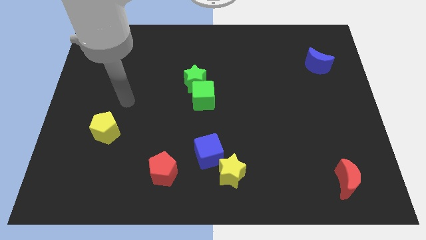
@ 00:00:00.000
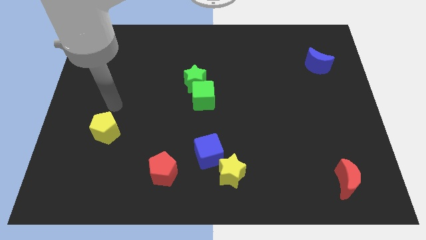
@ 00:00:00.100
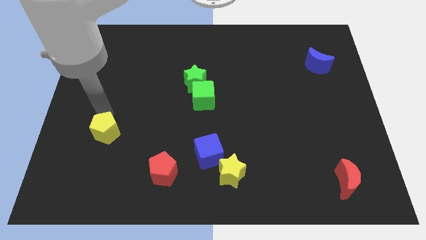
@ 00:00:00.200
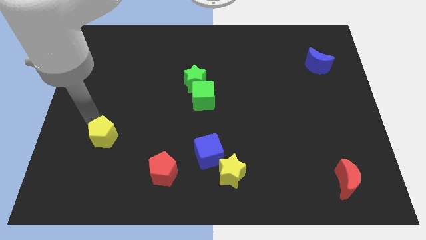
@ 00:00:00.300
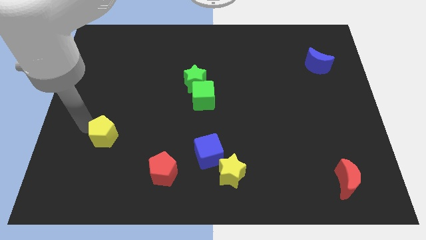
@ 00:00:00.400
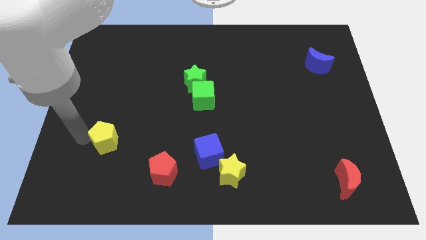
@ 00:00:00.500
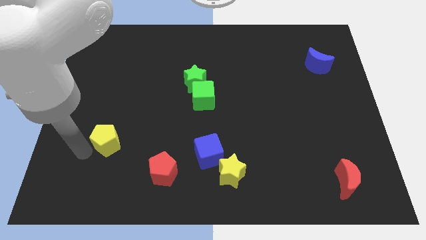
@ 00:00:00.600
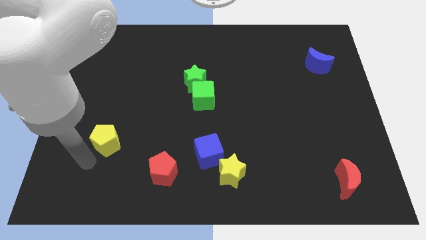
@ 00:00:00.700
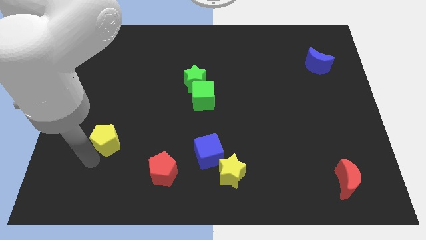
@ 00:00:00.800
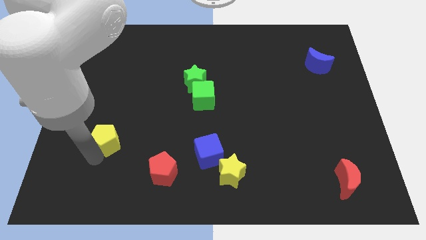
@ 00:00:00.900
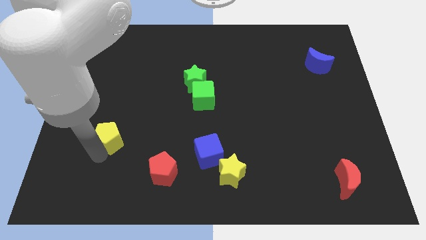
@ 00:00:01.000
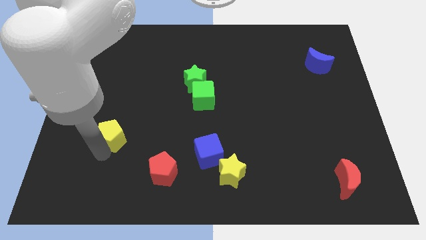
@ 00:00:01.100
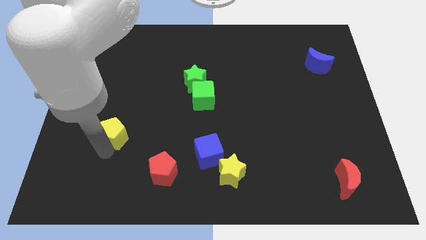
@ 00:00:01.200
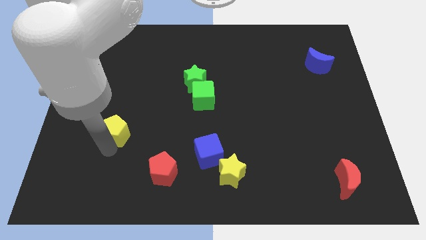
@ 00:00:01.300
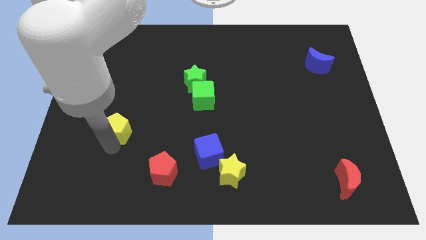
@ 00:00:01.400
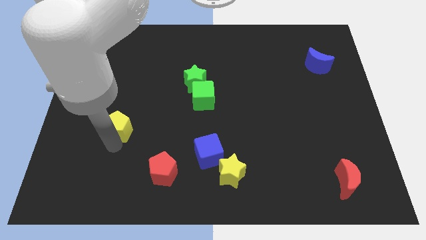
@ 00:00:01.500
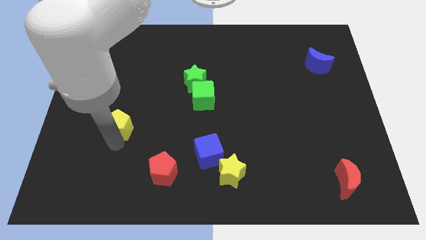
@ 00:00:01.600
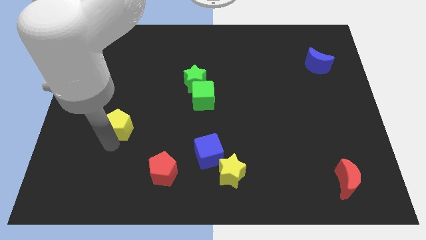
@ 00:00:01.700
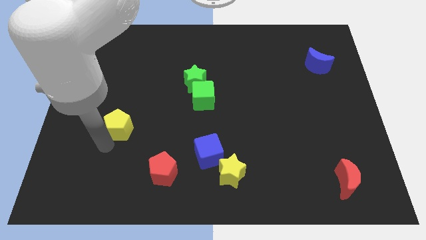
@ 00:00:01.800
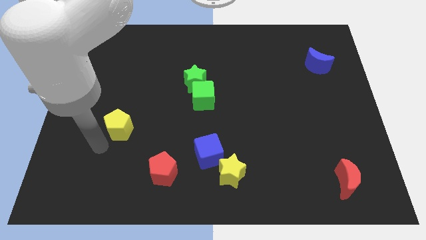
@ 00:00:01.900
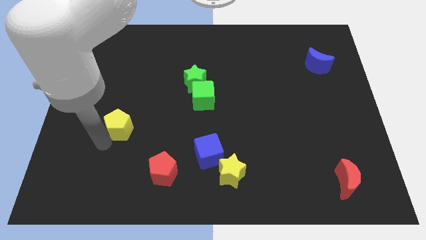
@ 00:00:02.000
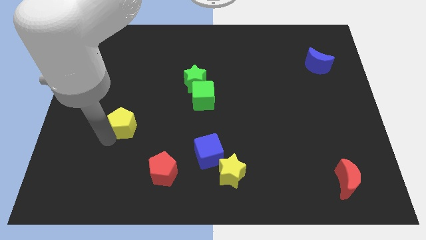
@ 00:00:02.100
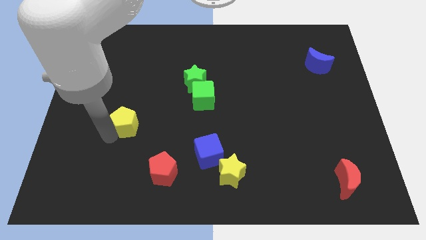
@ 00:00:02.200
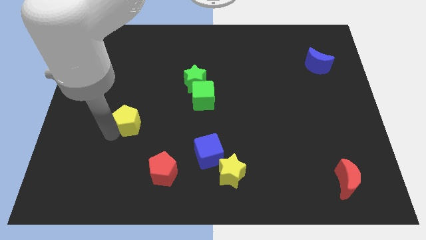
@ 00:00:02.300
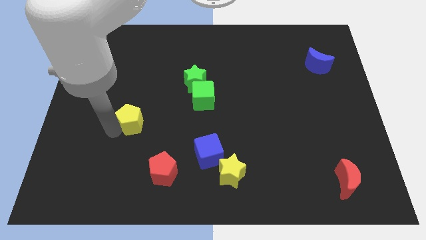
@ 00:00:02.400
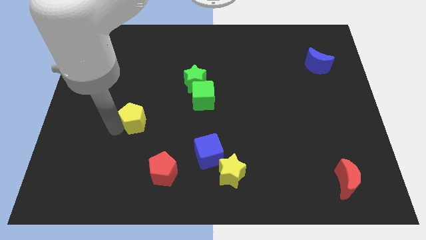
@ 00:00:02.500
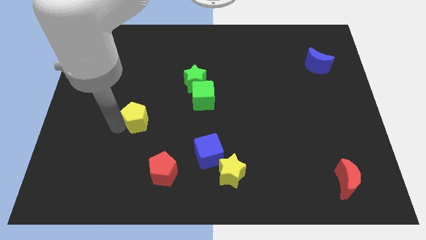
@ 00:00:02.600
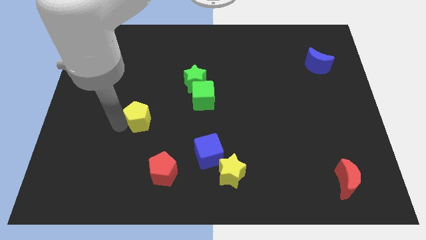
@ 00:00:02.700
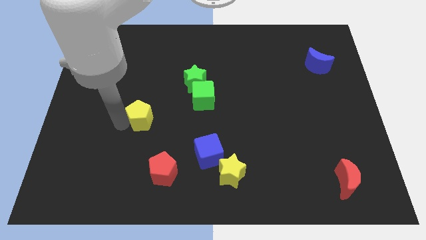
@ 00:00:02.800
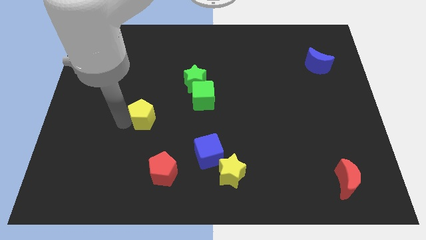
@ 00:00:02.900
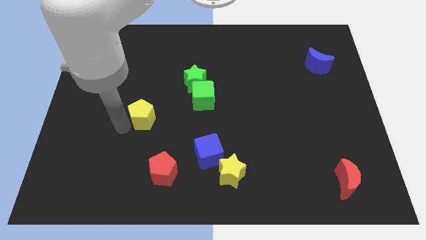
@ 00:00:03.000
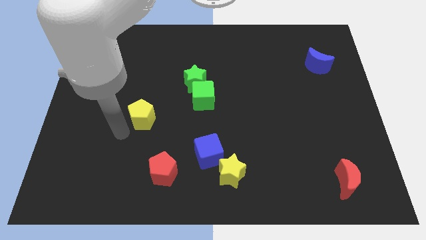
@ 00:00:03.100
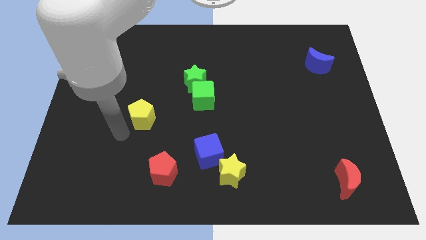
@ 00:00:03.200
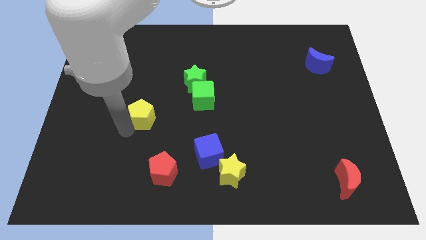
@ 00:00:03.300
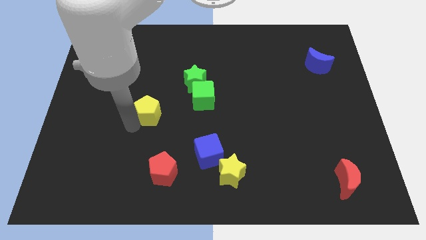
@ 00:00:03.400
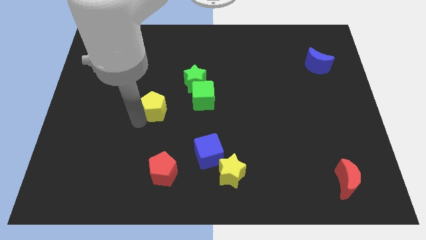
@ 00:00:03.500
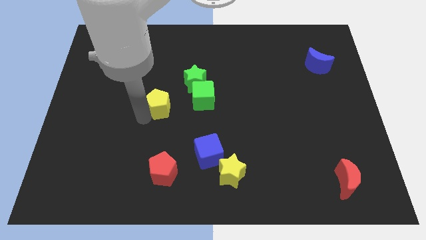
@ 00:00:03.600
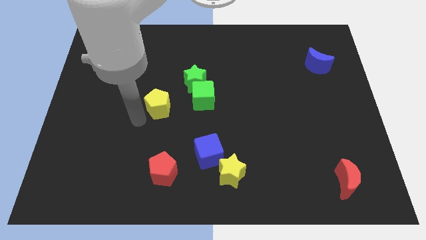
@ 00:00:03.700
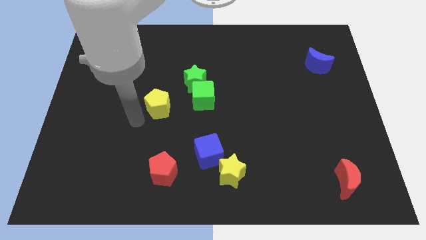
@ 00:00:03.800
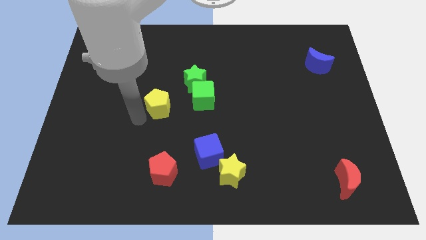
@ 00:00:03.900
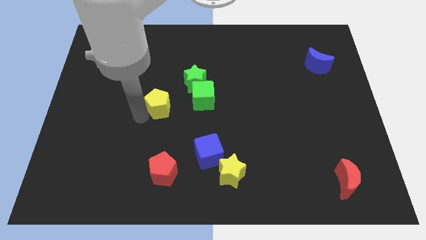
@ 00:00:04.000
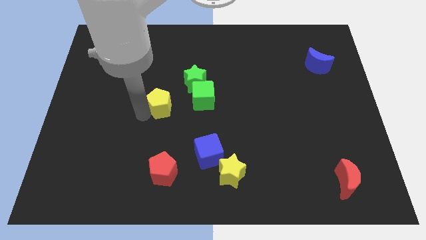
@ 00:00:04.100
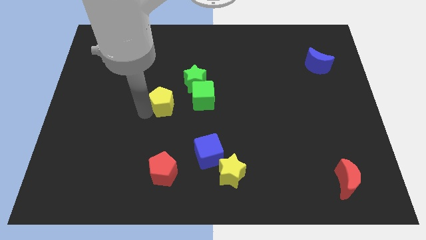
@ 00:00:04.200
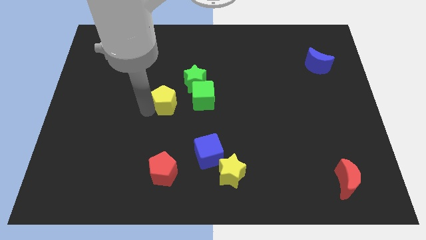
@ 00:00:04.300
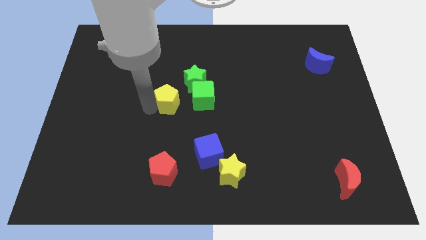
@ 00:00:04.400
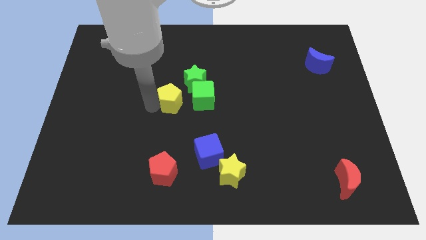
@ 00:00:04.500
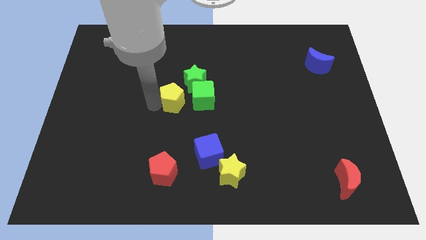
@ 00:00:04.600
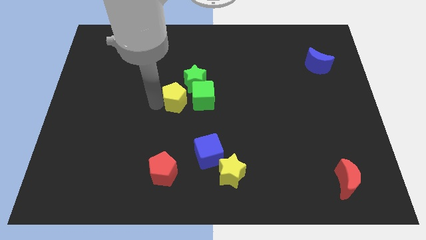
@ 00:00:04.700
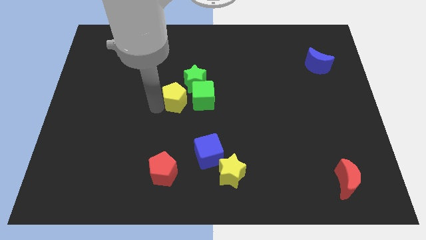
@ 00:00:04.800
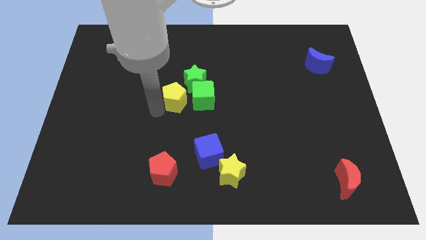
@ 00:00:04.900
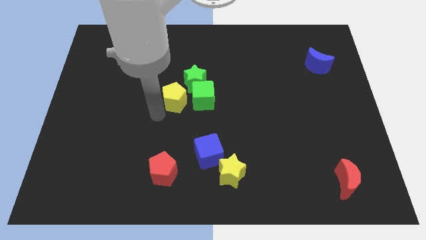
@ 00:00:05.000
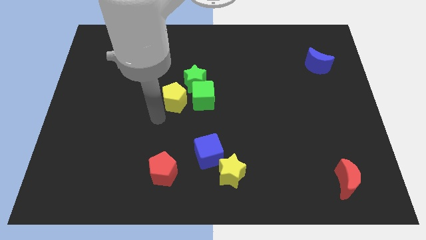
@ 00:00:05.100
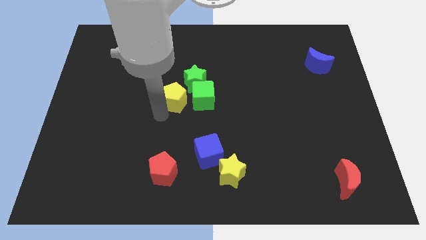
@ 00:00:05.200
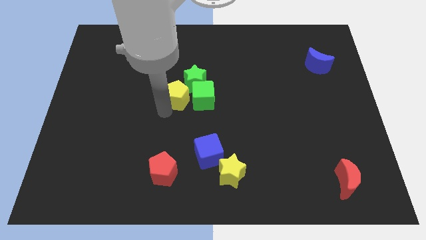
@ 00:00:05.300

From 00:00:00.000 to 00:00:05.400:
push the yellow pentagon next to the green star
